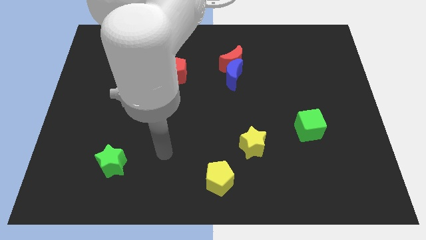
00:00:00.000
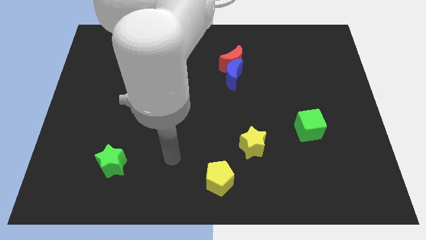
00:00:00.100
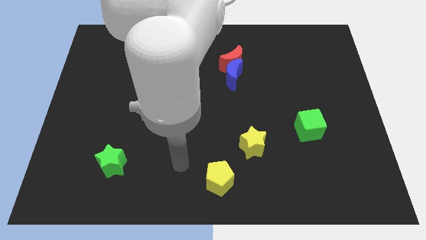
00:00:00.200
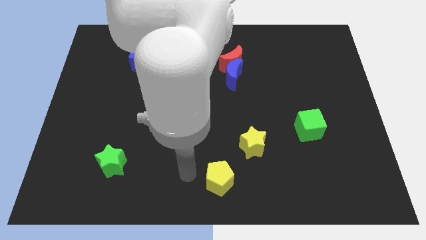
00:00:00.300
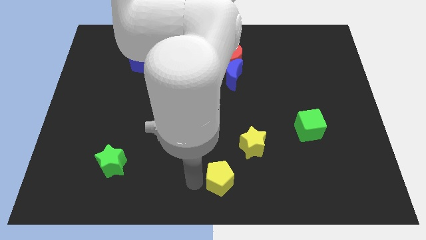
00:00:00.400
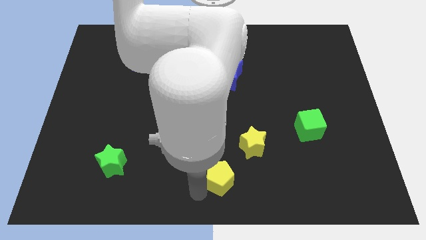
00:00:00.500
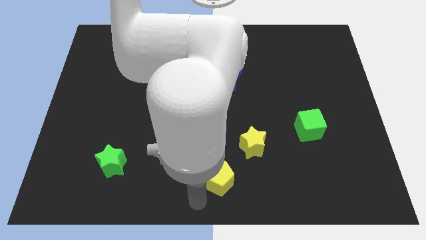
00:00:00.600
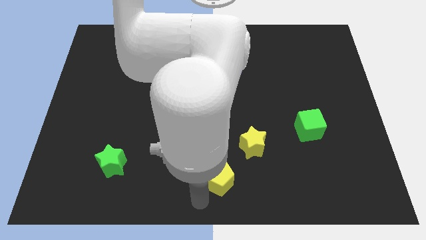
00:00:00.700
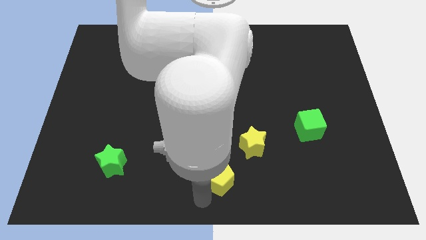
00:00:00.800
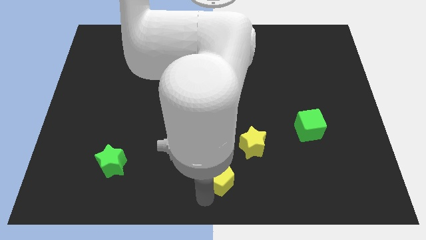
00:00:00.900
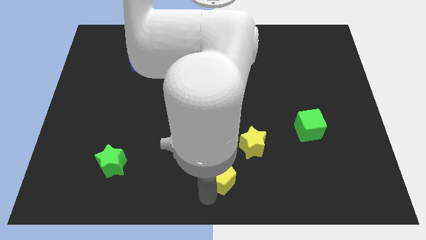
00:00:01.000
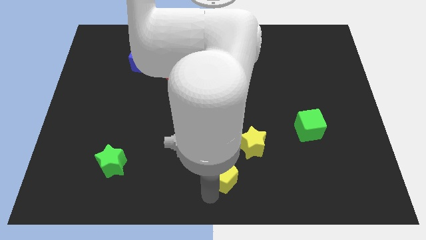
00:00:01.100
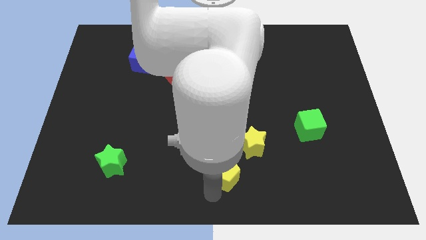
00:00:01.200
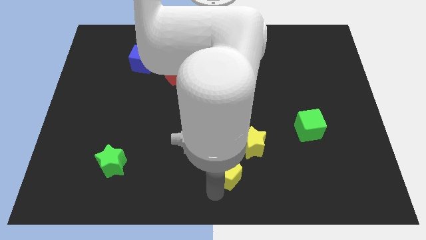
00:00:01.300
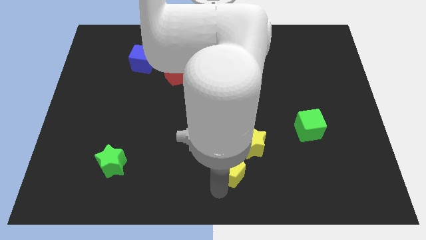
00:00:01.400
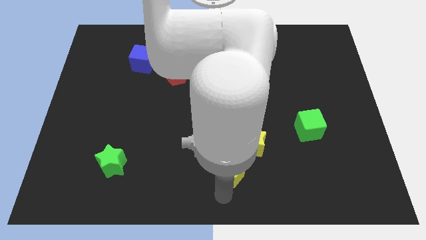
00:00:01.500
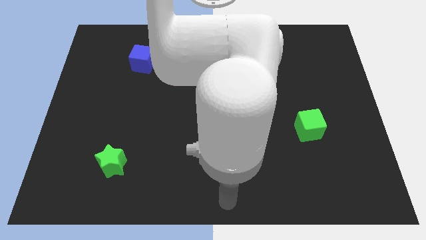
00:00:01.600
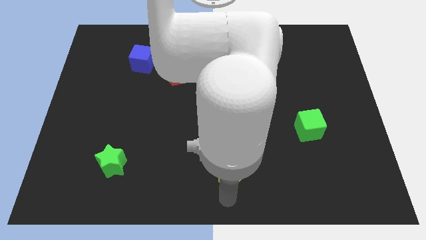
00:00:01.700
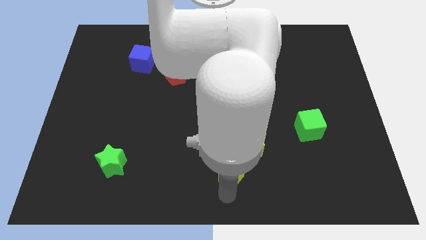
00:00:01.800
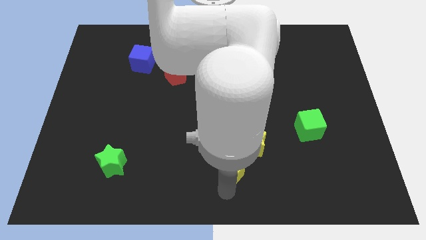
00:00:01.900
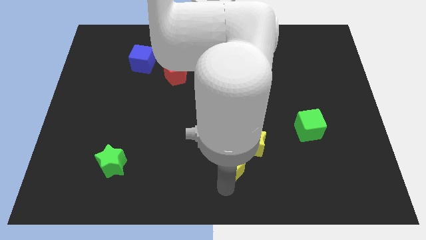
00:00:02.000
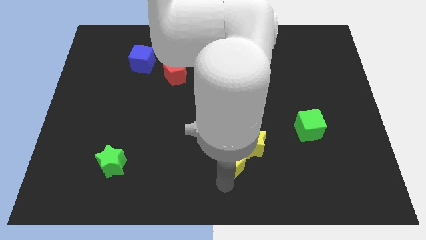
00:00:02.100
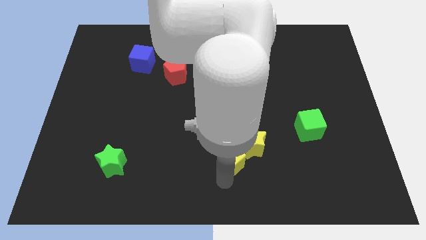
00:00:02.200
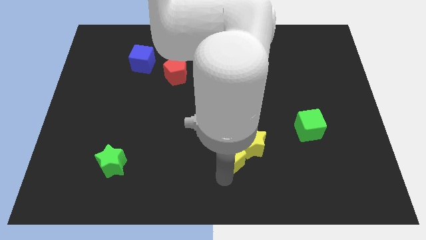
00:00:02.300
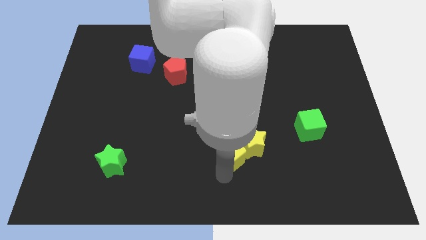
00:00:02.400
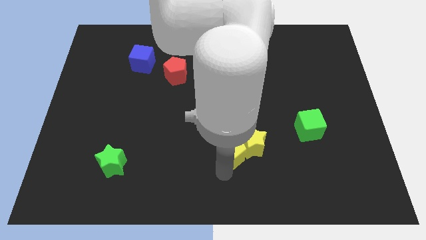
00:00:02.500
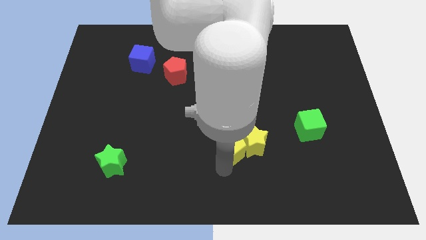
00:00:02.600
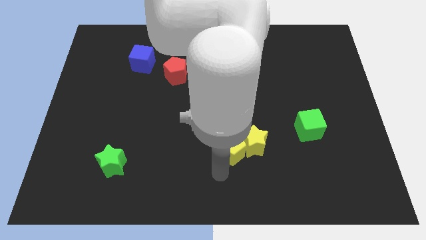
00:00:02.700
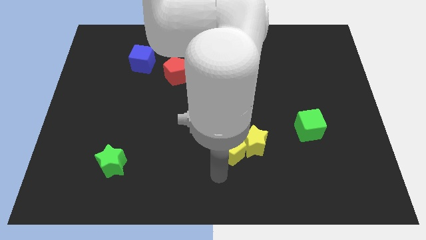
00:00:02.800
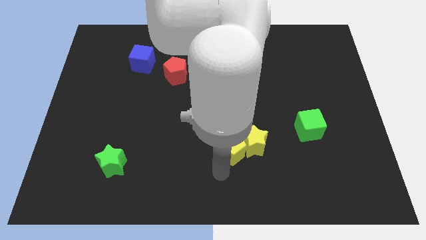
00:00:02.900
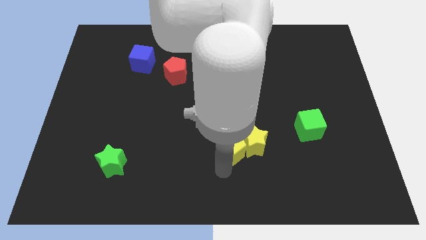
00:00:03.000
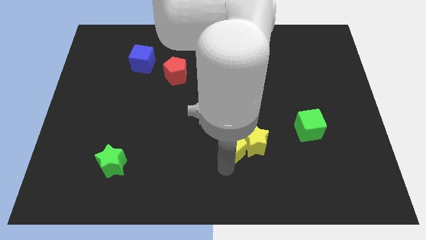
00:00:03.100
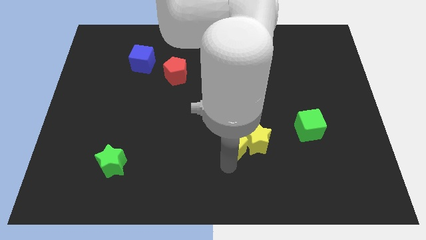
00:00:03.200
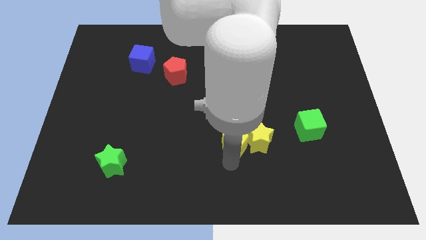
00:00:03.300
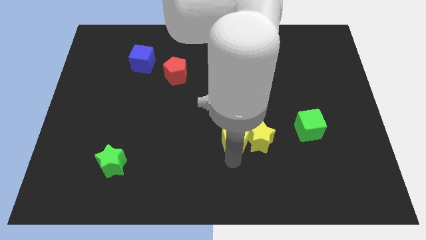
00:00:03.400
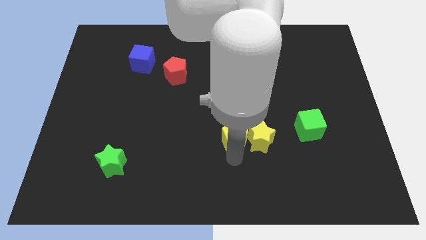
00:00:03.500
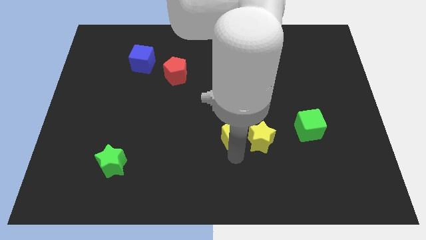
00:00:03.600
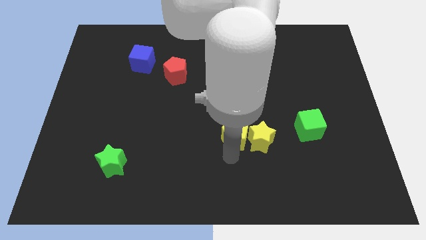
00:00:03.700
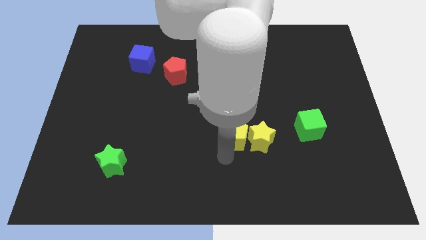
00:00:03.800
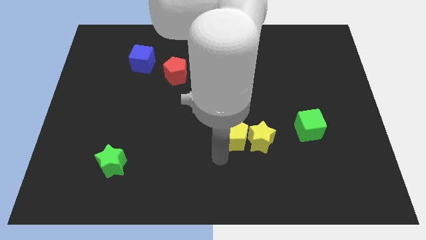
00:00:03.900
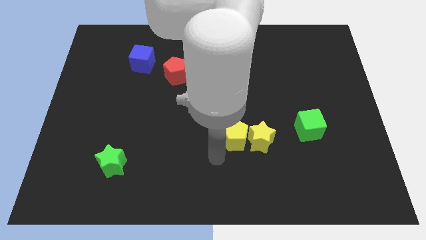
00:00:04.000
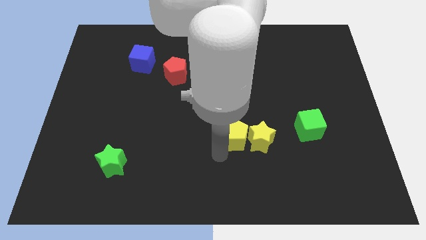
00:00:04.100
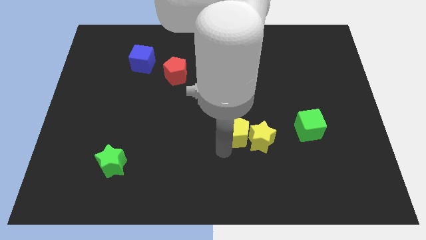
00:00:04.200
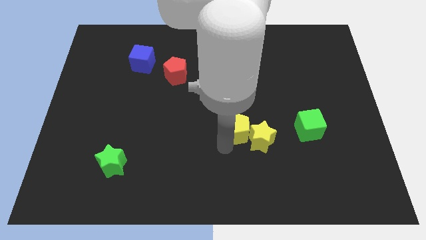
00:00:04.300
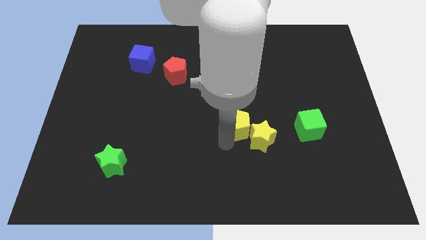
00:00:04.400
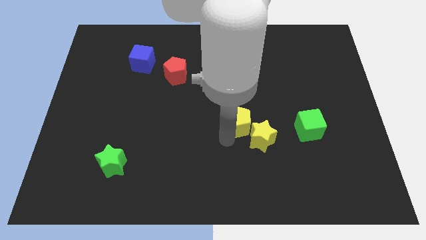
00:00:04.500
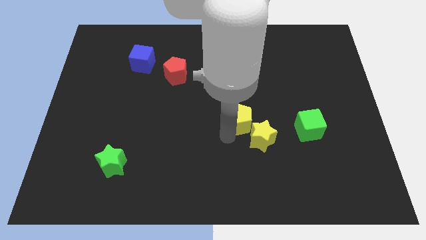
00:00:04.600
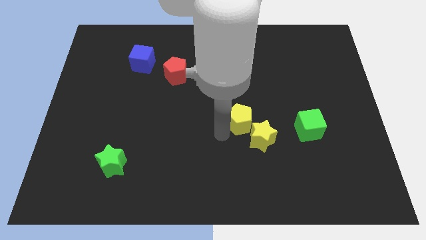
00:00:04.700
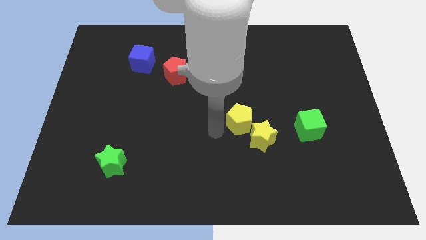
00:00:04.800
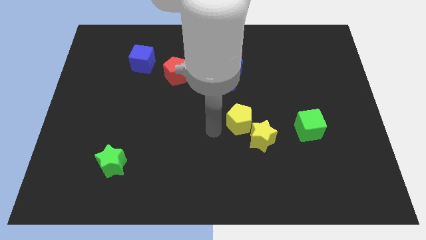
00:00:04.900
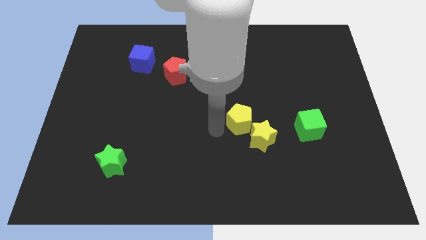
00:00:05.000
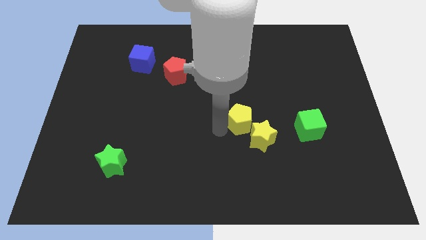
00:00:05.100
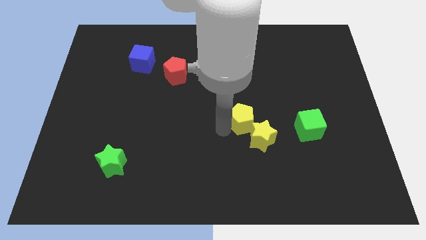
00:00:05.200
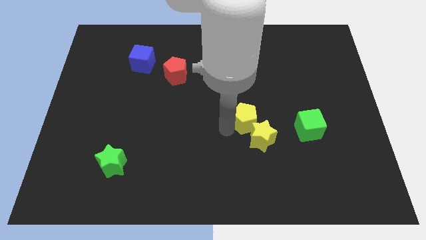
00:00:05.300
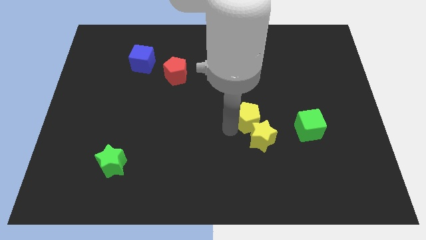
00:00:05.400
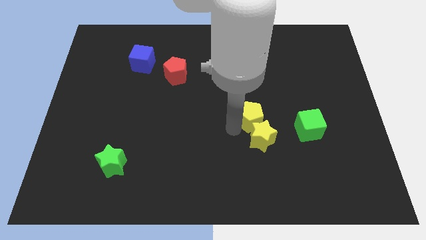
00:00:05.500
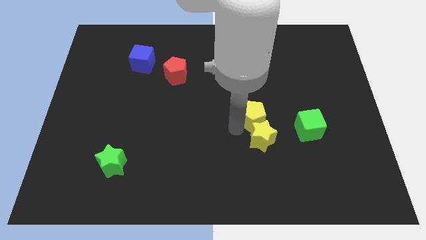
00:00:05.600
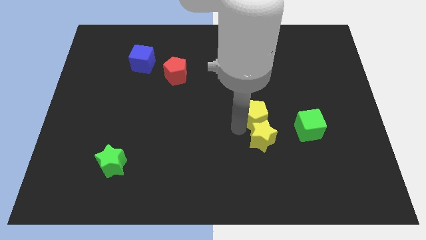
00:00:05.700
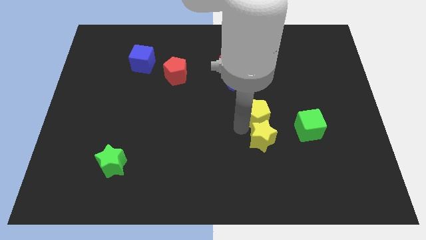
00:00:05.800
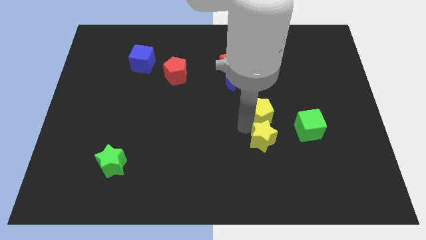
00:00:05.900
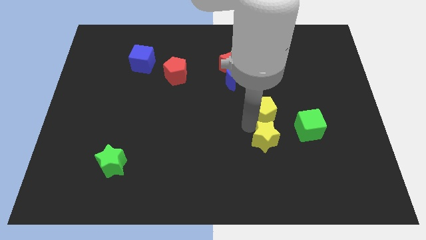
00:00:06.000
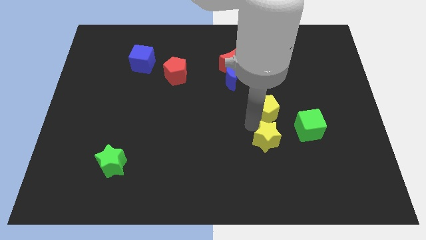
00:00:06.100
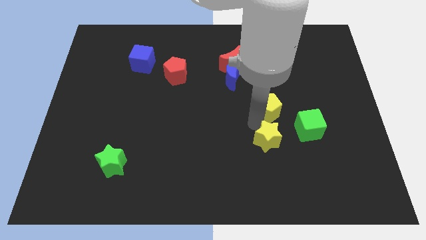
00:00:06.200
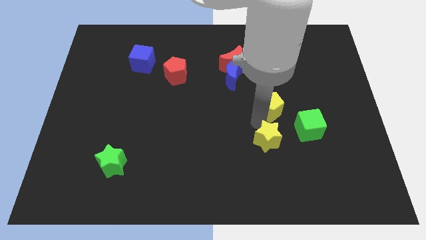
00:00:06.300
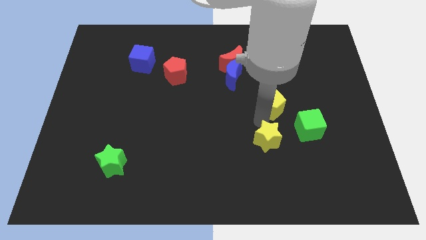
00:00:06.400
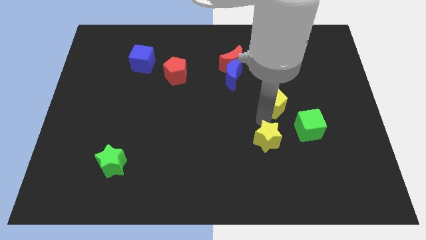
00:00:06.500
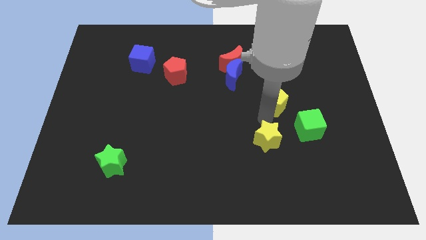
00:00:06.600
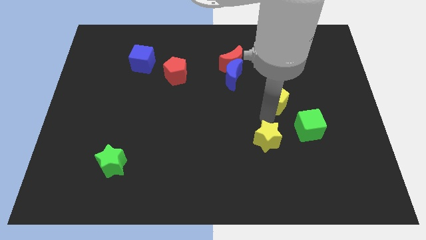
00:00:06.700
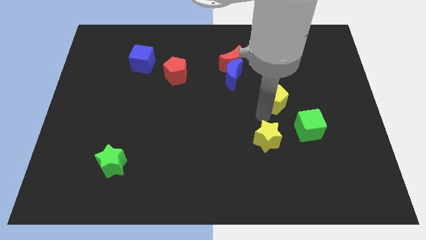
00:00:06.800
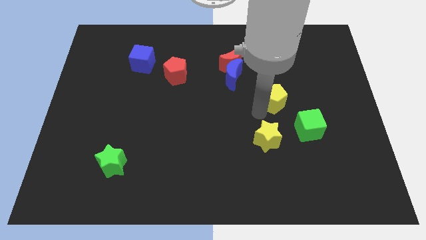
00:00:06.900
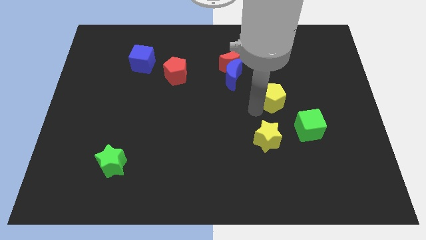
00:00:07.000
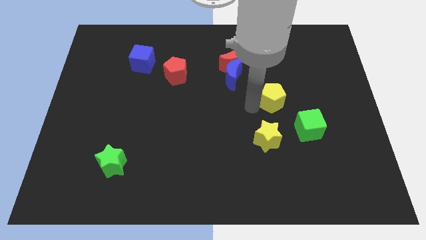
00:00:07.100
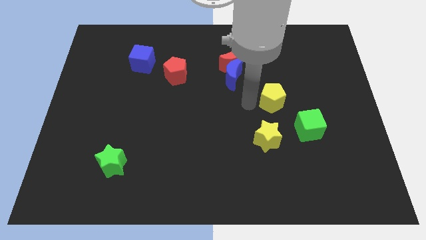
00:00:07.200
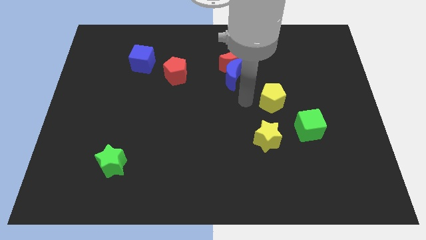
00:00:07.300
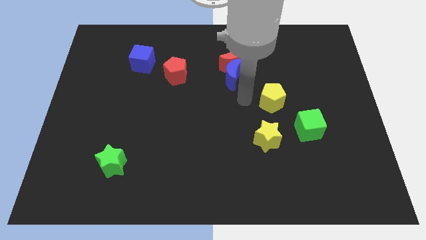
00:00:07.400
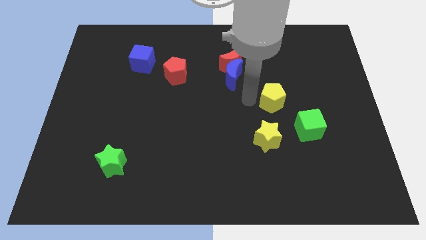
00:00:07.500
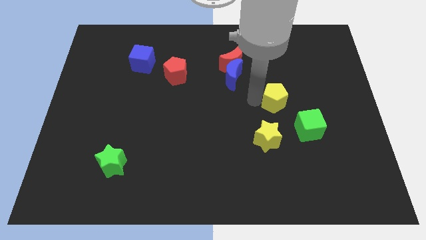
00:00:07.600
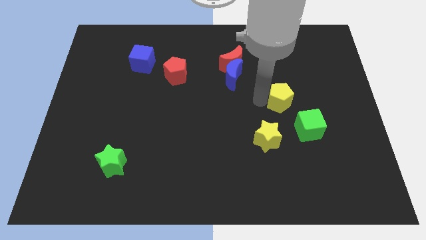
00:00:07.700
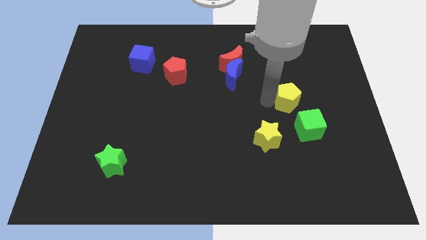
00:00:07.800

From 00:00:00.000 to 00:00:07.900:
put the yellow pentagon above the green cube
